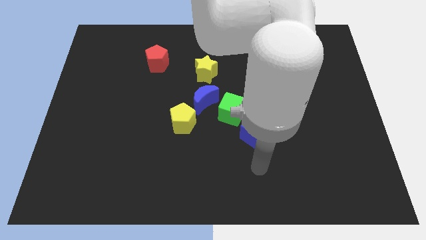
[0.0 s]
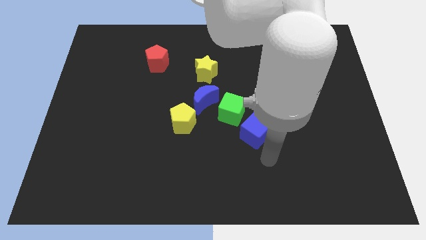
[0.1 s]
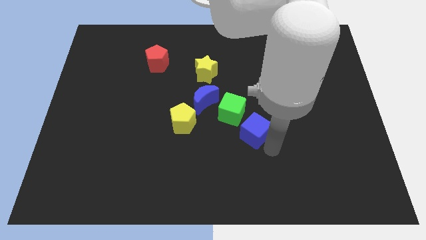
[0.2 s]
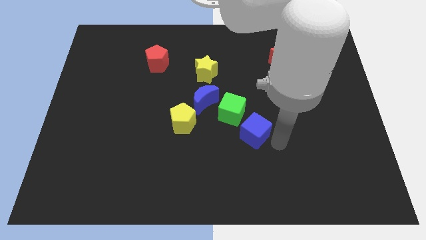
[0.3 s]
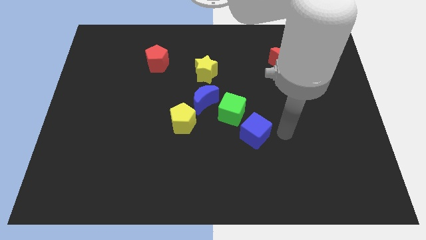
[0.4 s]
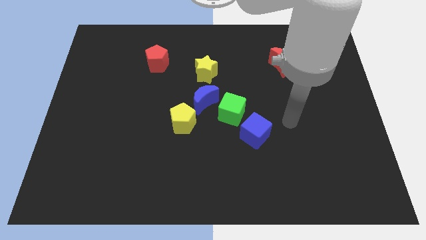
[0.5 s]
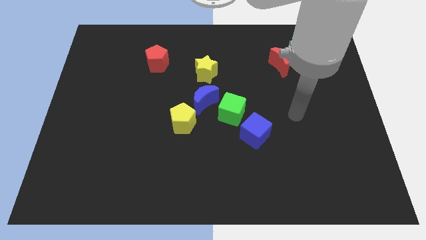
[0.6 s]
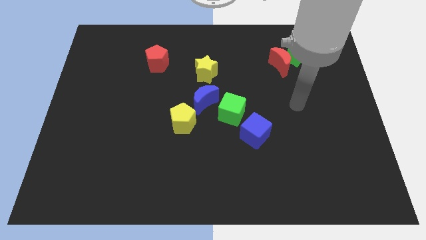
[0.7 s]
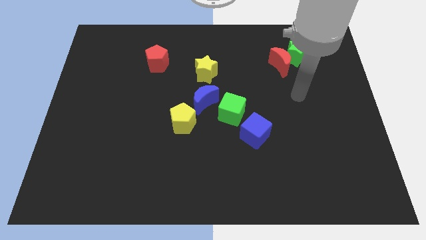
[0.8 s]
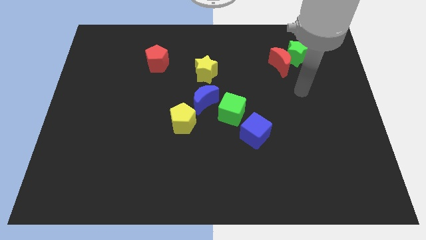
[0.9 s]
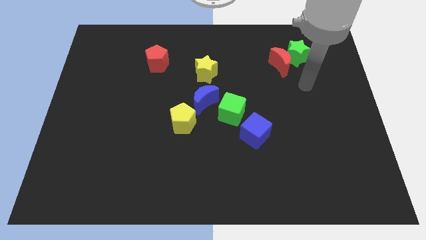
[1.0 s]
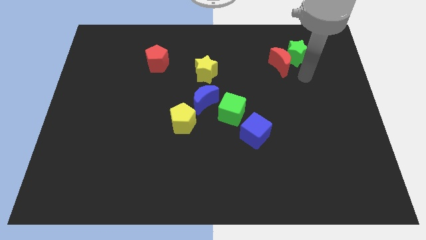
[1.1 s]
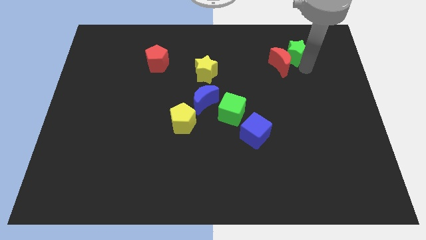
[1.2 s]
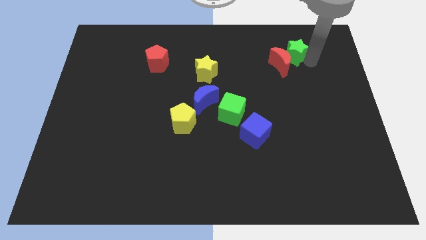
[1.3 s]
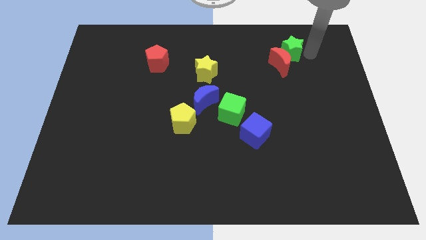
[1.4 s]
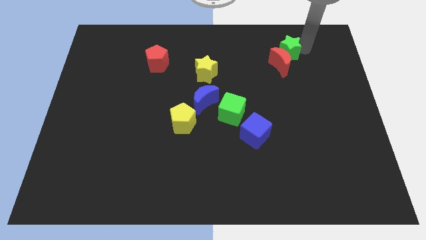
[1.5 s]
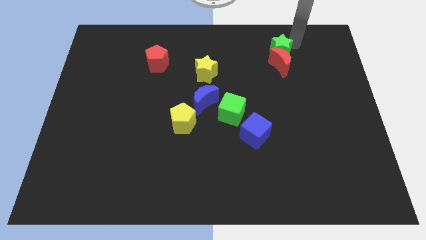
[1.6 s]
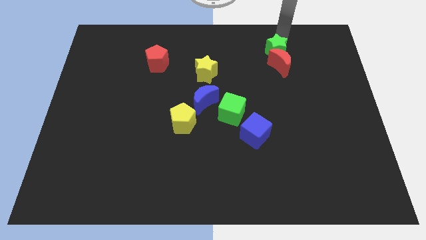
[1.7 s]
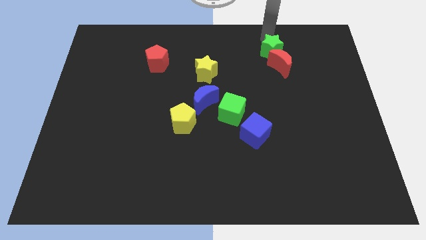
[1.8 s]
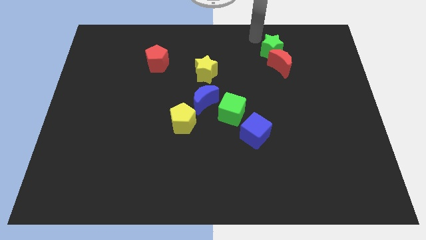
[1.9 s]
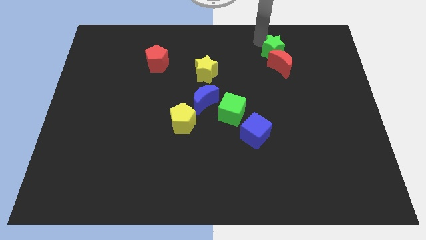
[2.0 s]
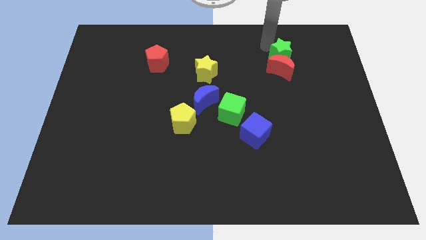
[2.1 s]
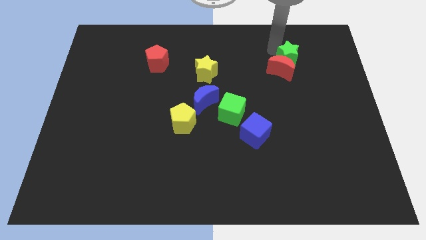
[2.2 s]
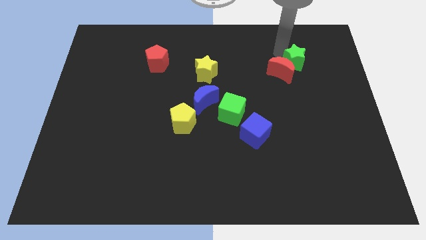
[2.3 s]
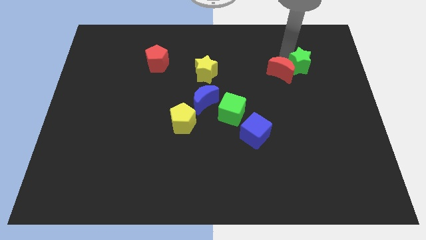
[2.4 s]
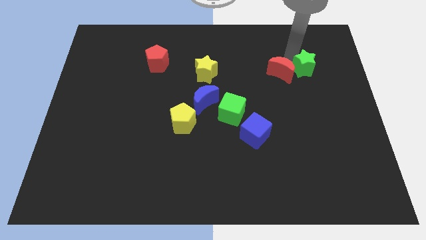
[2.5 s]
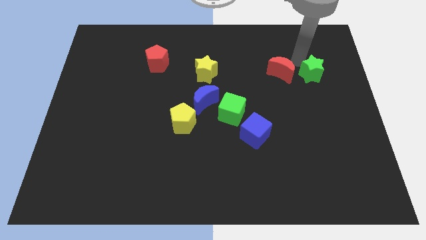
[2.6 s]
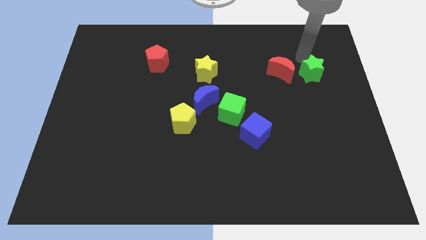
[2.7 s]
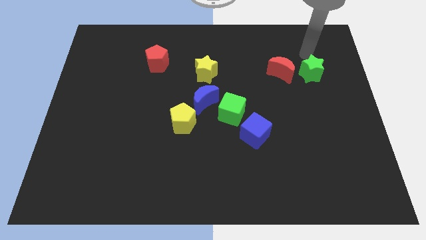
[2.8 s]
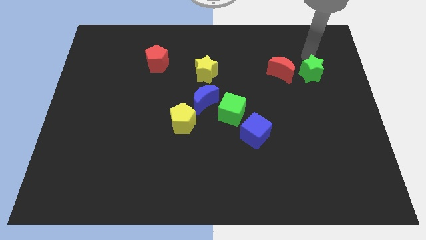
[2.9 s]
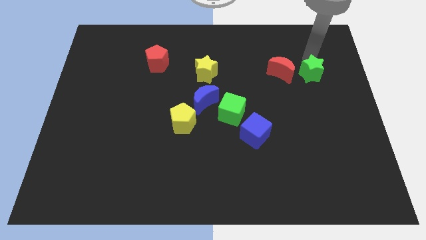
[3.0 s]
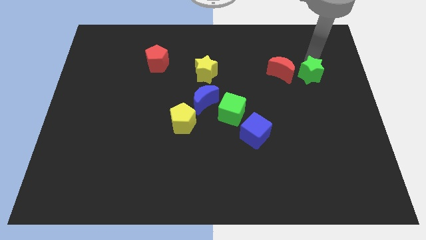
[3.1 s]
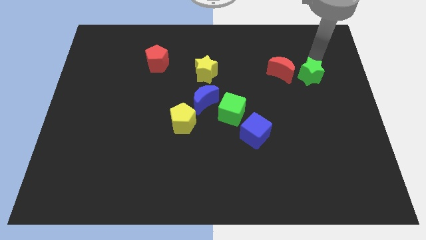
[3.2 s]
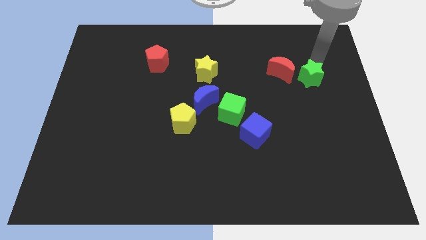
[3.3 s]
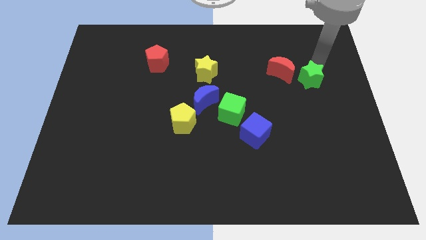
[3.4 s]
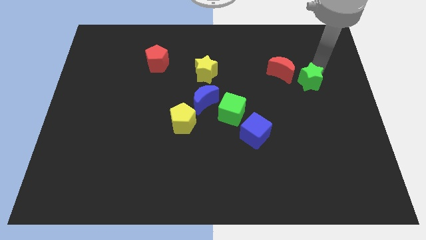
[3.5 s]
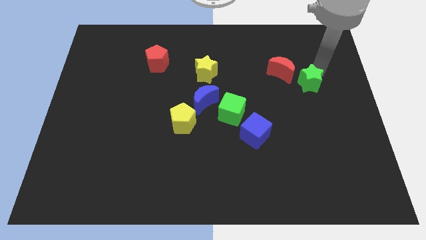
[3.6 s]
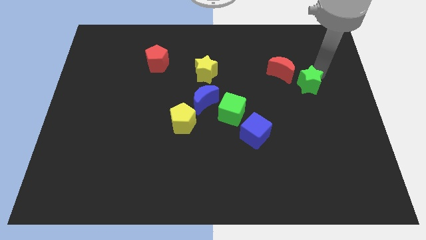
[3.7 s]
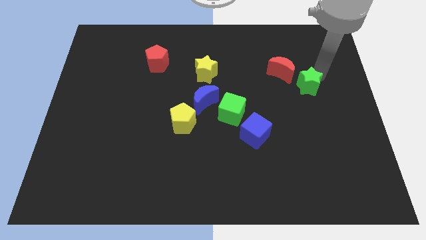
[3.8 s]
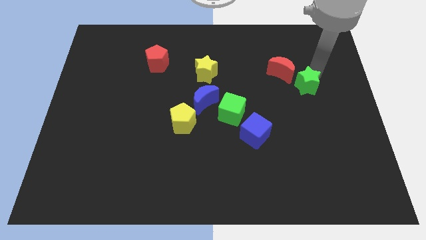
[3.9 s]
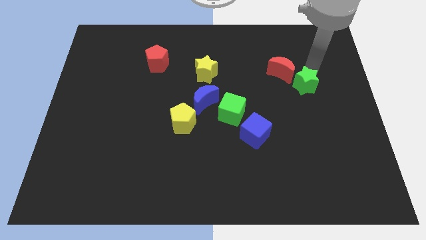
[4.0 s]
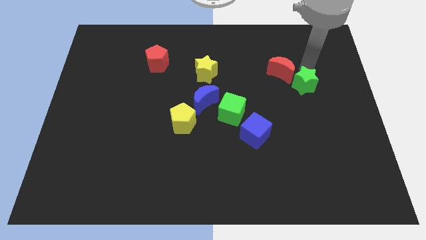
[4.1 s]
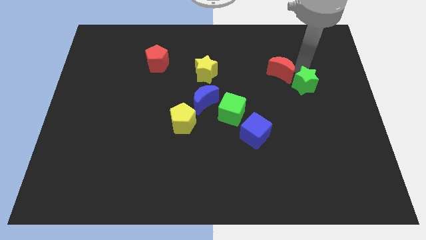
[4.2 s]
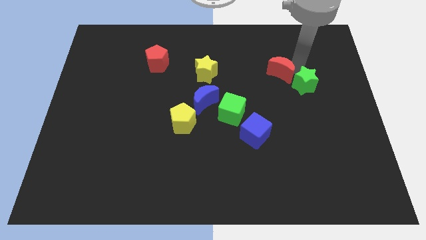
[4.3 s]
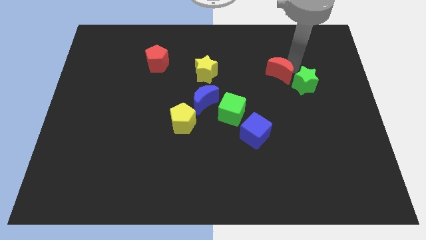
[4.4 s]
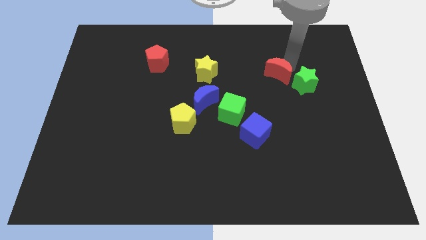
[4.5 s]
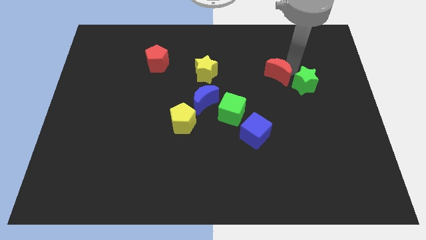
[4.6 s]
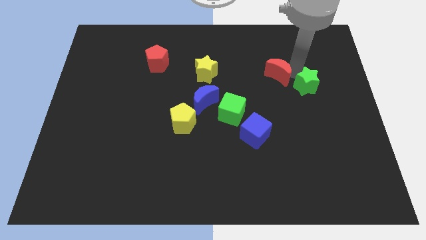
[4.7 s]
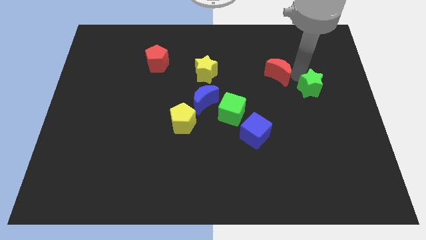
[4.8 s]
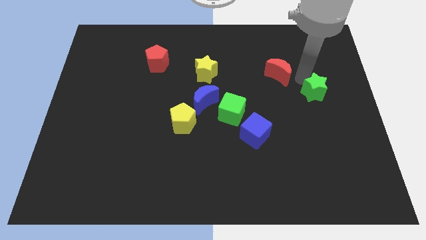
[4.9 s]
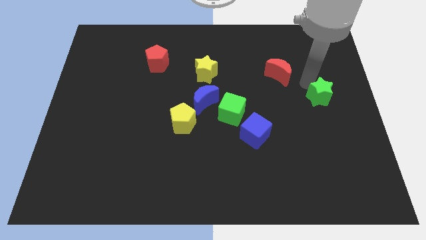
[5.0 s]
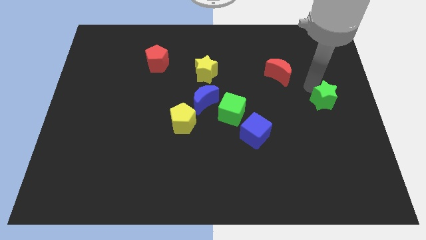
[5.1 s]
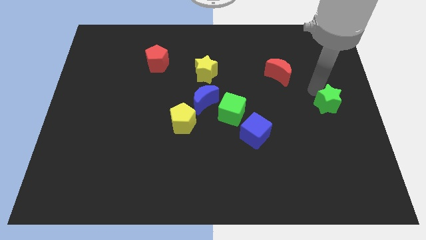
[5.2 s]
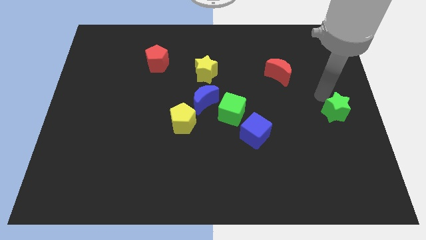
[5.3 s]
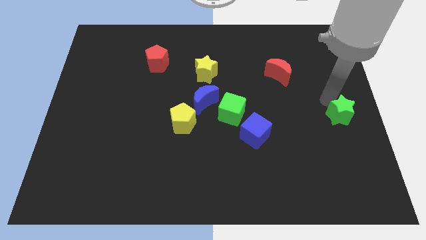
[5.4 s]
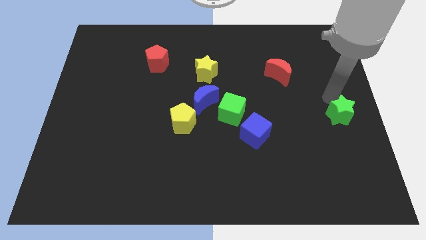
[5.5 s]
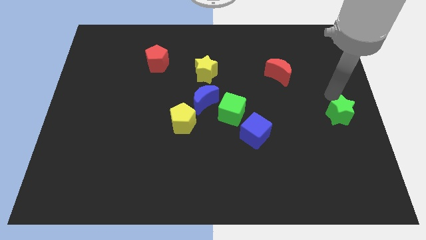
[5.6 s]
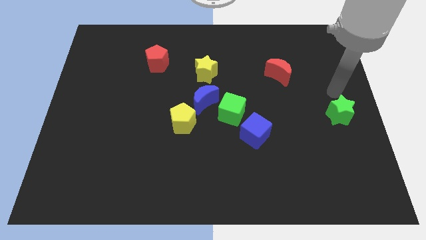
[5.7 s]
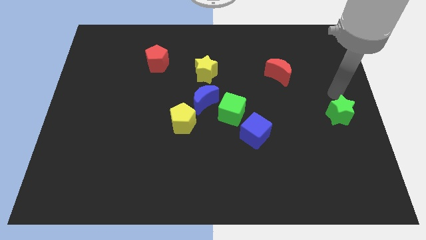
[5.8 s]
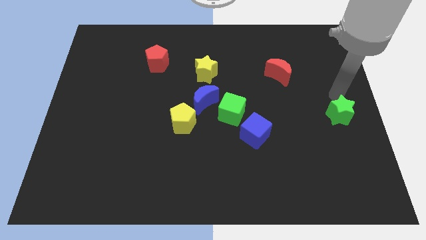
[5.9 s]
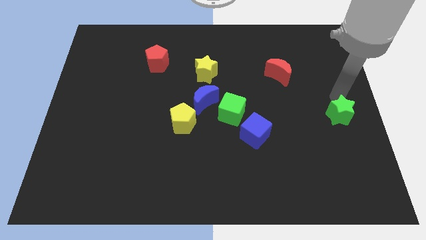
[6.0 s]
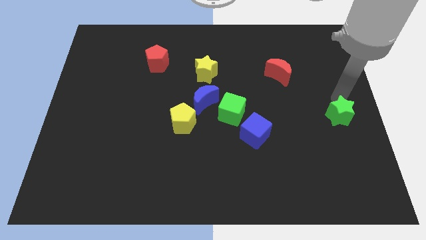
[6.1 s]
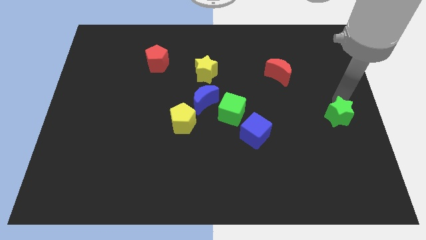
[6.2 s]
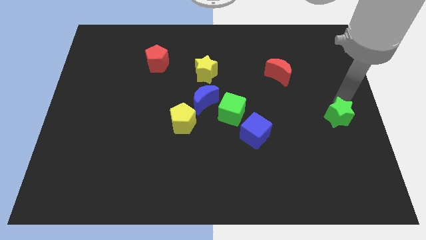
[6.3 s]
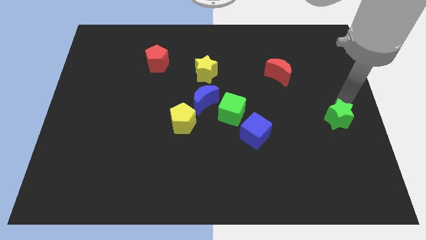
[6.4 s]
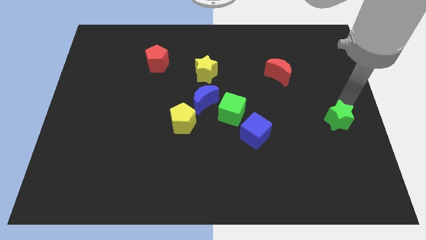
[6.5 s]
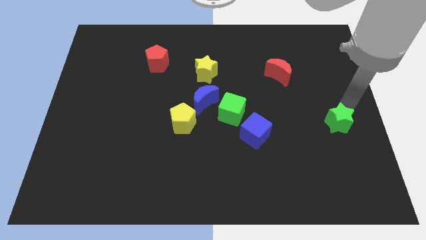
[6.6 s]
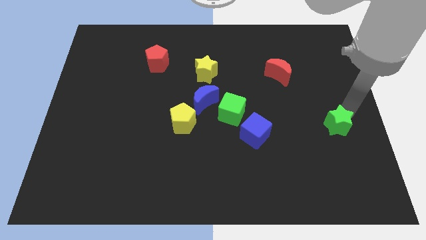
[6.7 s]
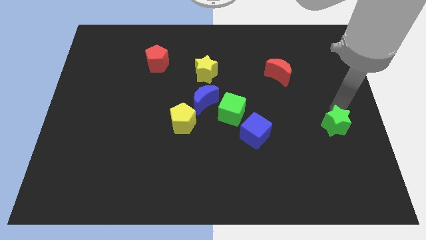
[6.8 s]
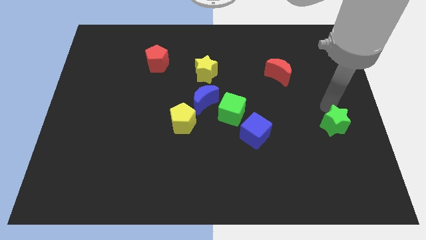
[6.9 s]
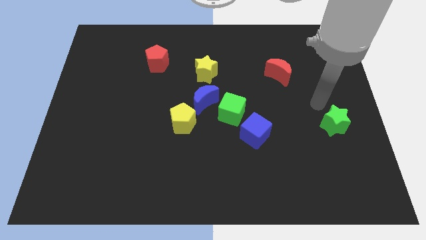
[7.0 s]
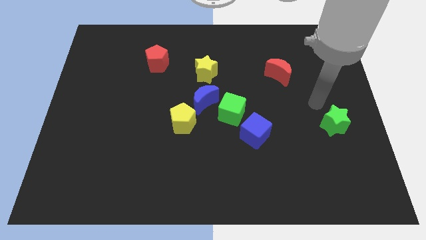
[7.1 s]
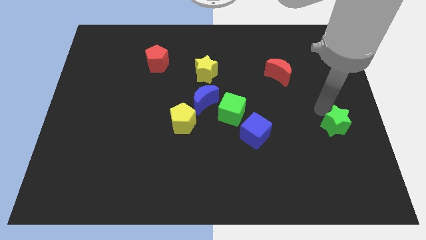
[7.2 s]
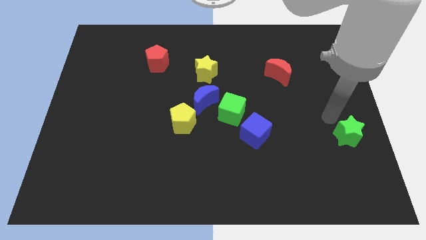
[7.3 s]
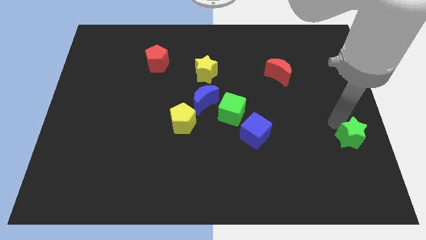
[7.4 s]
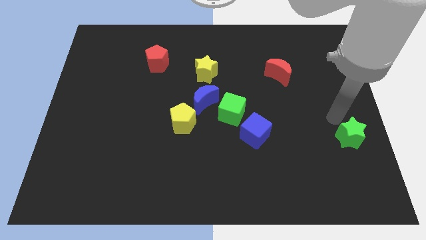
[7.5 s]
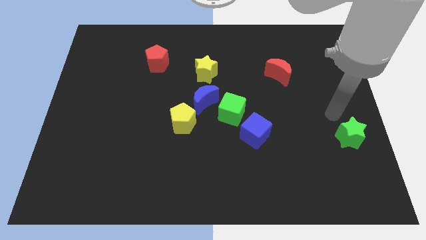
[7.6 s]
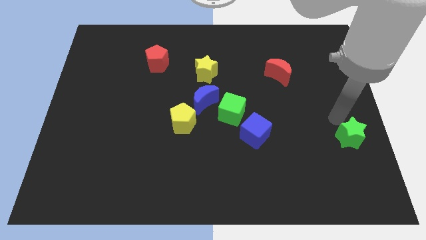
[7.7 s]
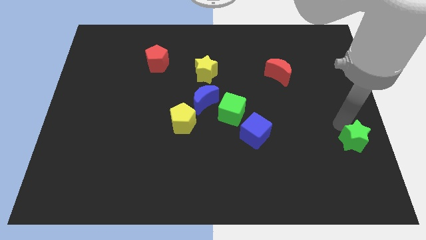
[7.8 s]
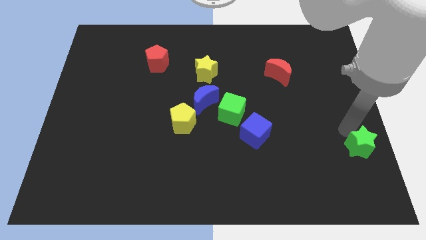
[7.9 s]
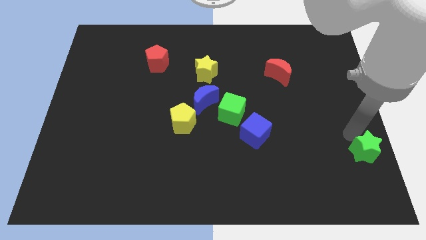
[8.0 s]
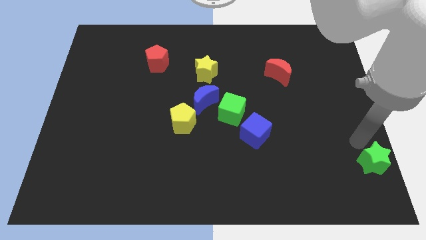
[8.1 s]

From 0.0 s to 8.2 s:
push the green star to the bottom right
